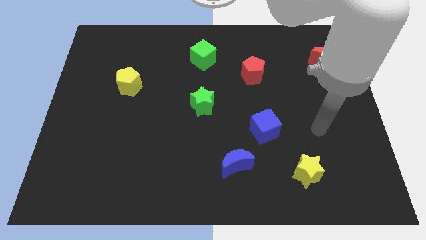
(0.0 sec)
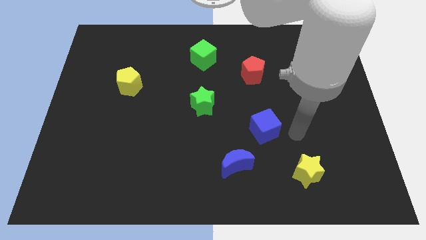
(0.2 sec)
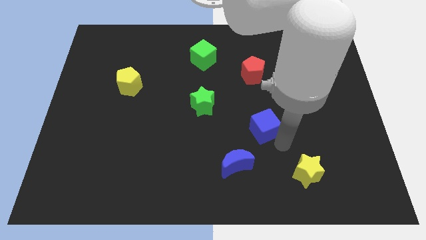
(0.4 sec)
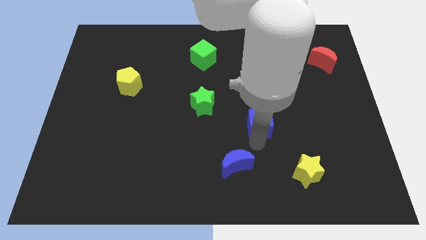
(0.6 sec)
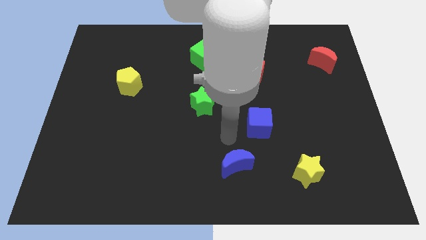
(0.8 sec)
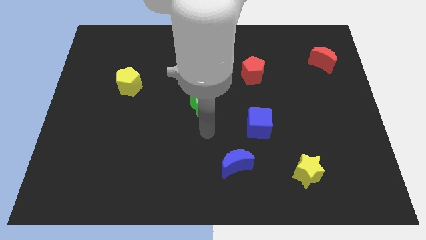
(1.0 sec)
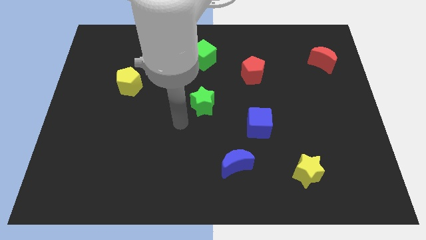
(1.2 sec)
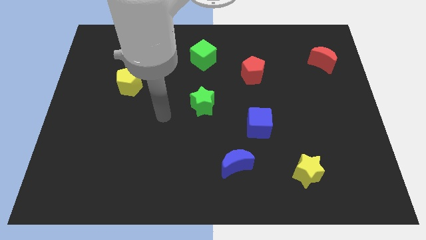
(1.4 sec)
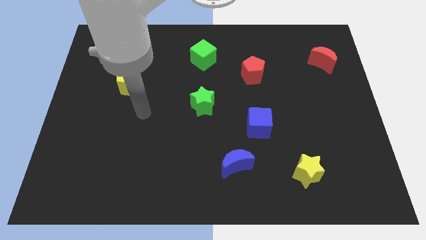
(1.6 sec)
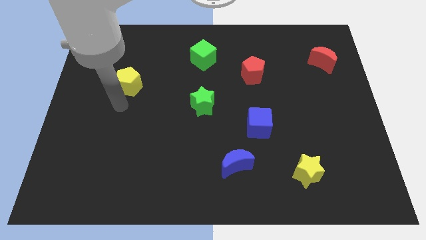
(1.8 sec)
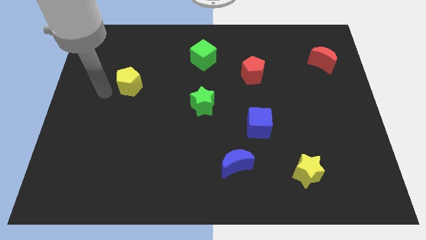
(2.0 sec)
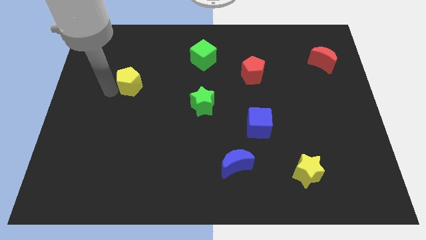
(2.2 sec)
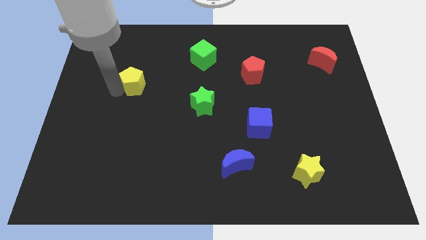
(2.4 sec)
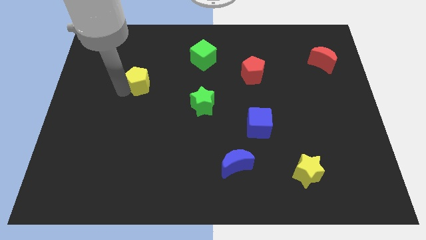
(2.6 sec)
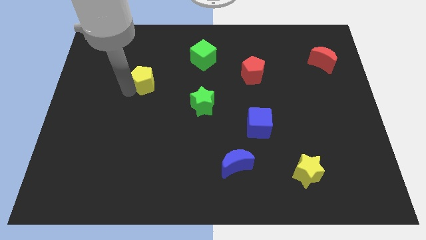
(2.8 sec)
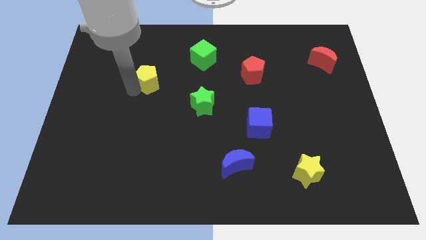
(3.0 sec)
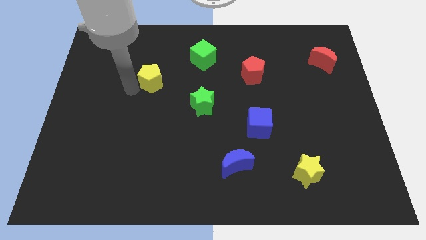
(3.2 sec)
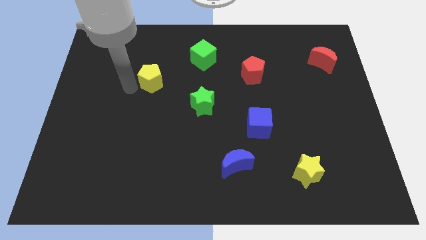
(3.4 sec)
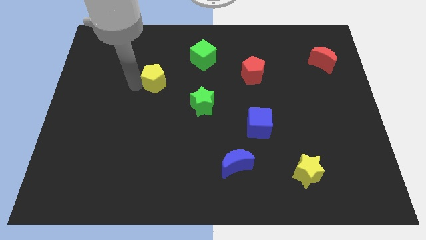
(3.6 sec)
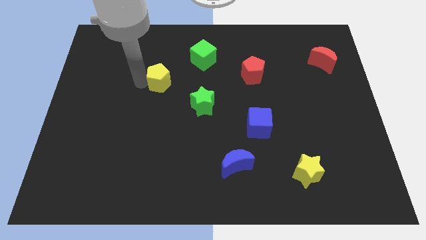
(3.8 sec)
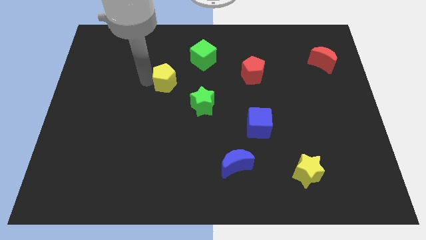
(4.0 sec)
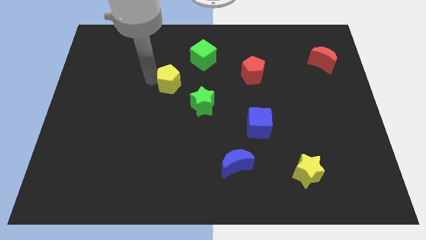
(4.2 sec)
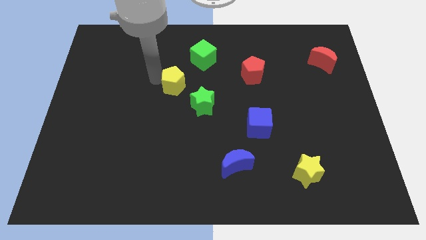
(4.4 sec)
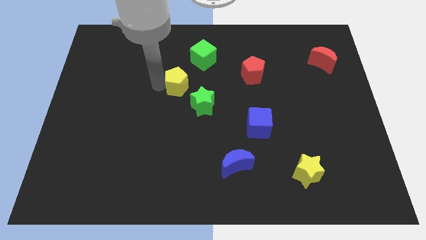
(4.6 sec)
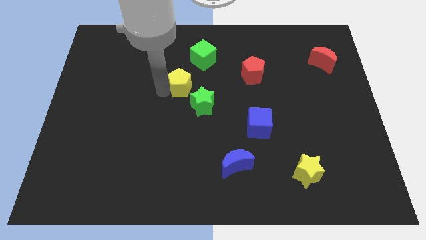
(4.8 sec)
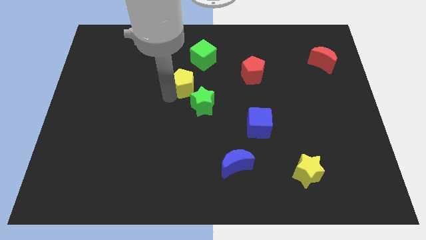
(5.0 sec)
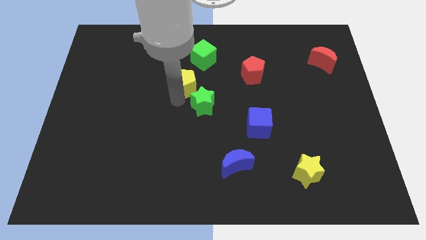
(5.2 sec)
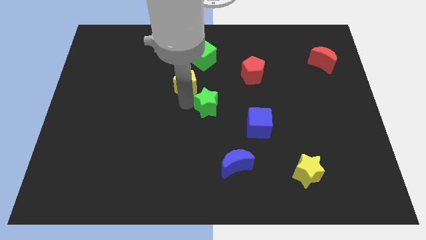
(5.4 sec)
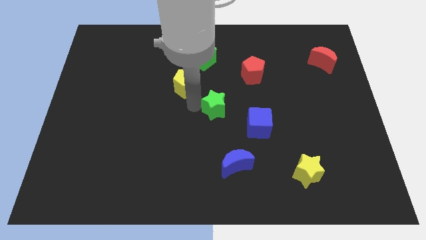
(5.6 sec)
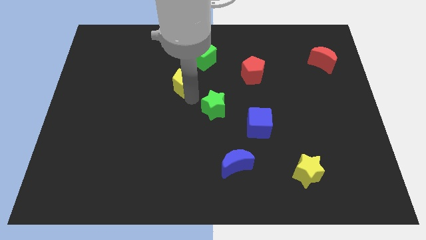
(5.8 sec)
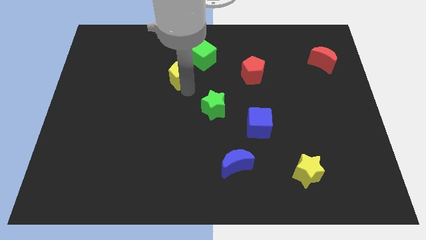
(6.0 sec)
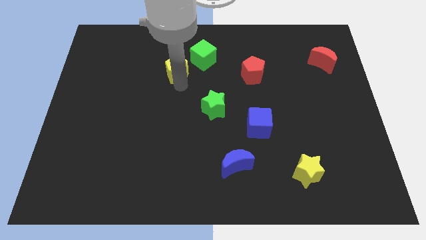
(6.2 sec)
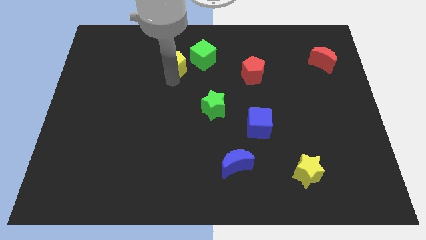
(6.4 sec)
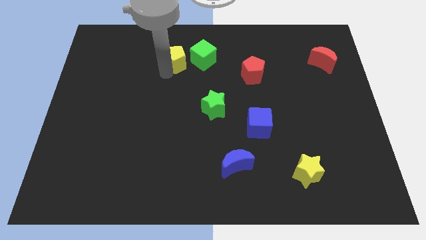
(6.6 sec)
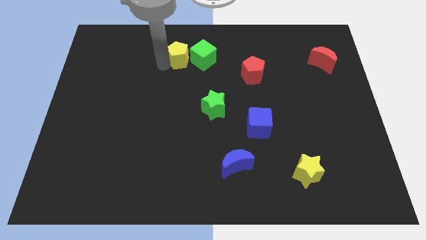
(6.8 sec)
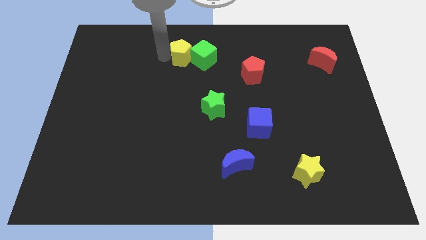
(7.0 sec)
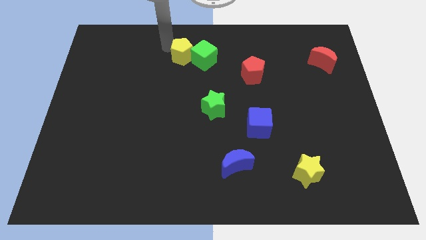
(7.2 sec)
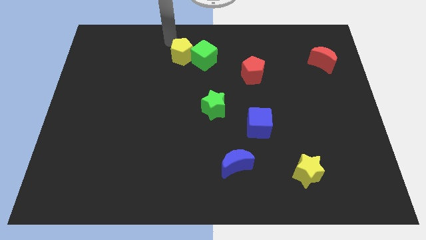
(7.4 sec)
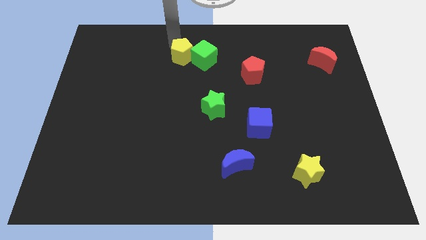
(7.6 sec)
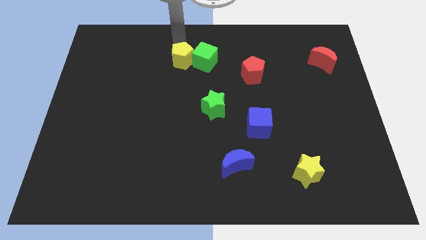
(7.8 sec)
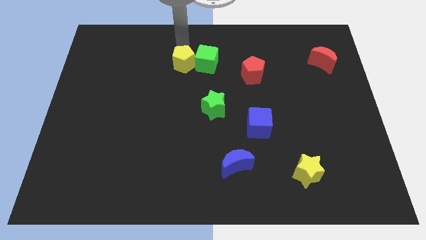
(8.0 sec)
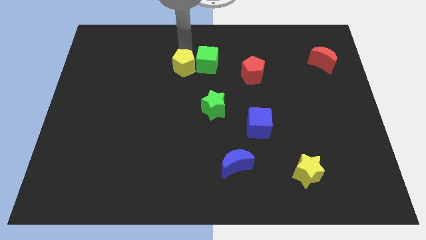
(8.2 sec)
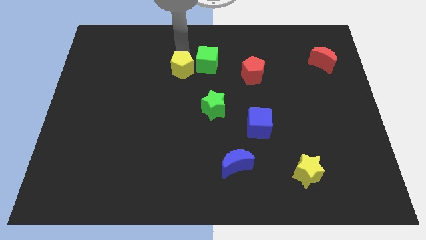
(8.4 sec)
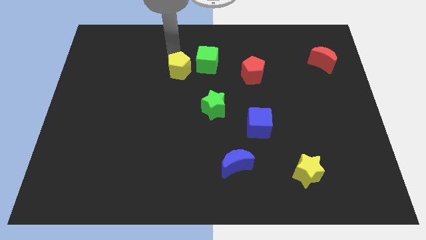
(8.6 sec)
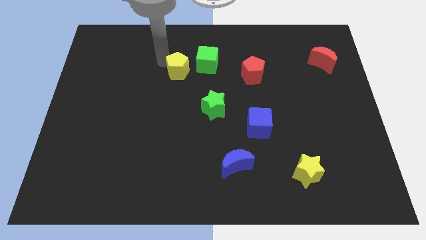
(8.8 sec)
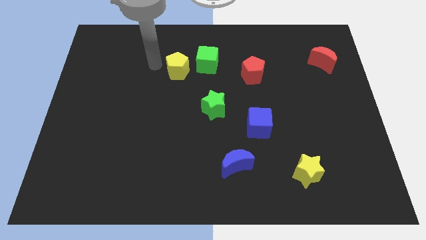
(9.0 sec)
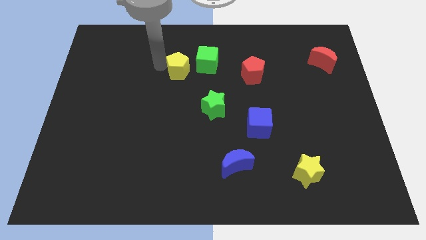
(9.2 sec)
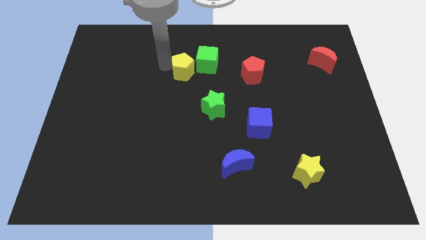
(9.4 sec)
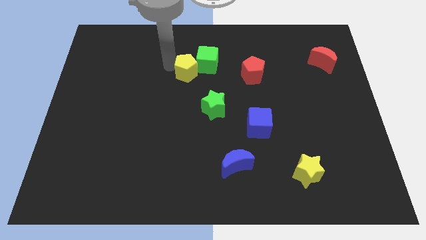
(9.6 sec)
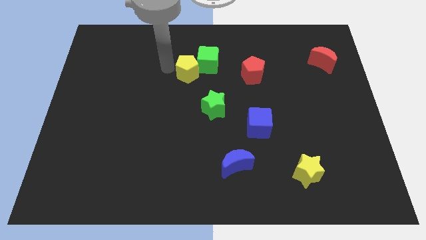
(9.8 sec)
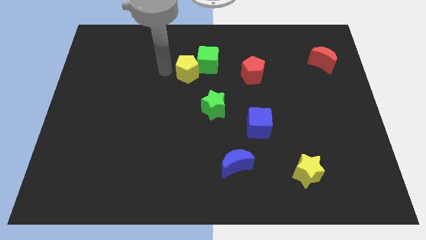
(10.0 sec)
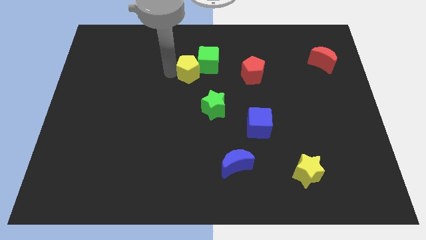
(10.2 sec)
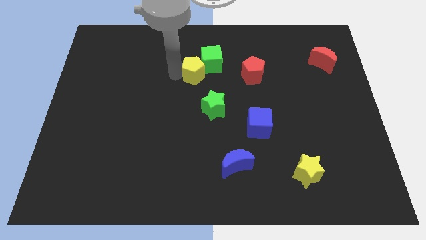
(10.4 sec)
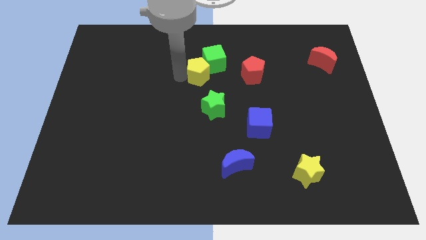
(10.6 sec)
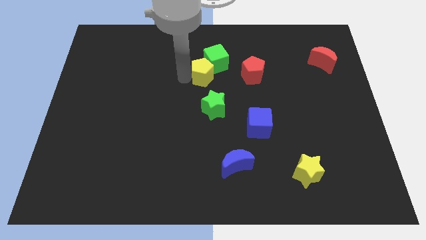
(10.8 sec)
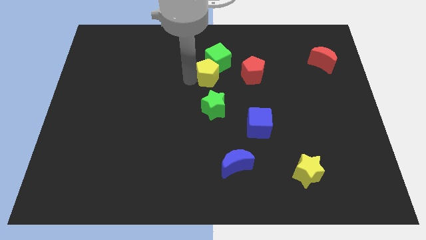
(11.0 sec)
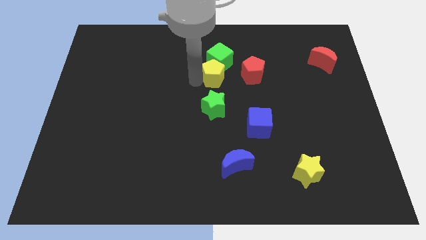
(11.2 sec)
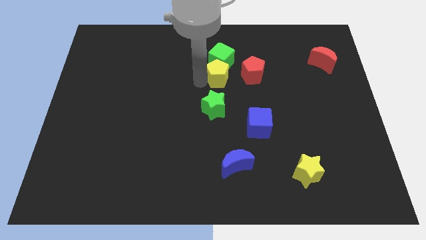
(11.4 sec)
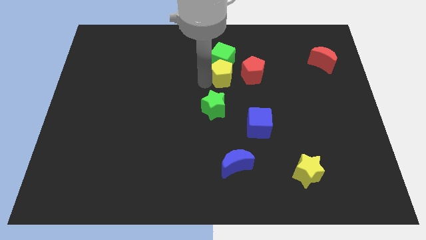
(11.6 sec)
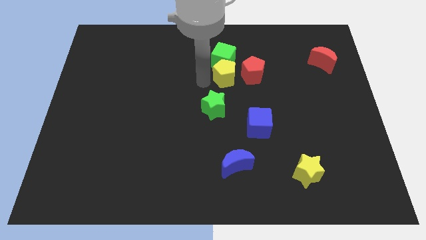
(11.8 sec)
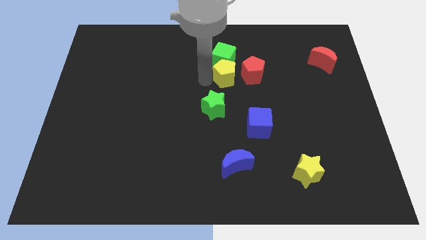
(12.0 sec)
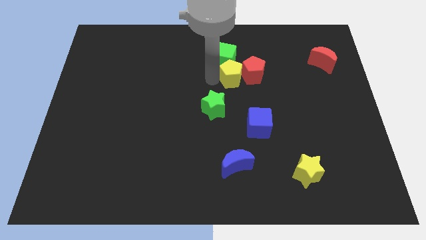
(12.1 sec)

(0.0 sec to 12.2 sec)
put the yellow pentagon next to the red pentagon
